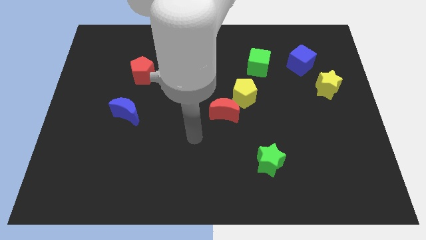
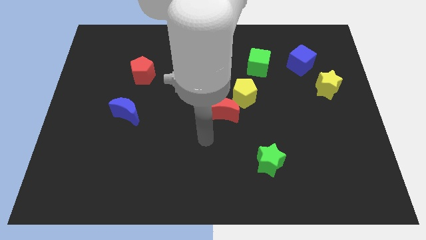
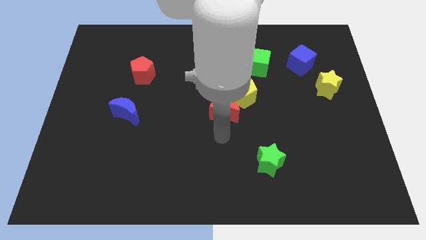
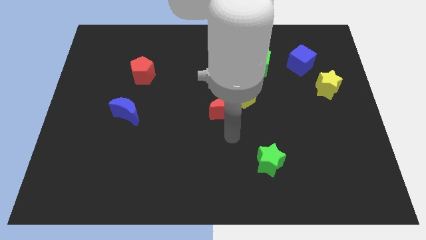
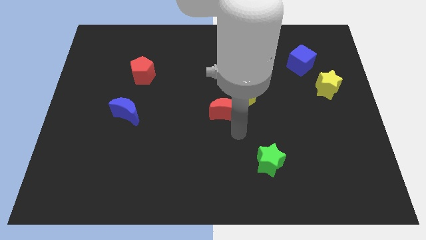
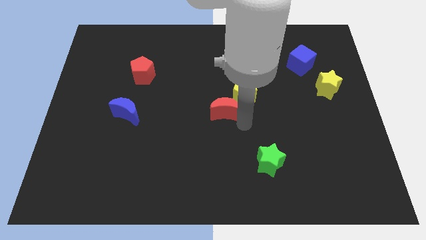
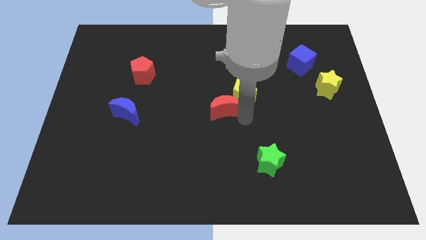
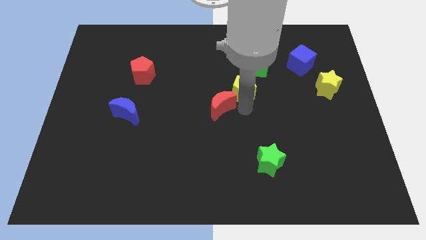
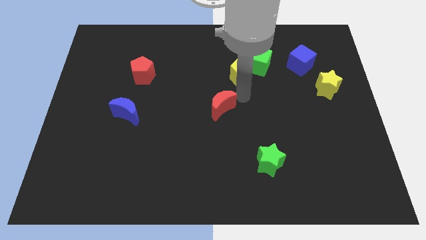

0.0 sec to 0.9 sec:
separate the red moon from the yellow pentagon

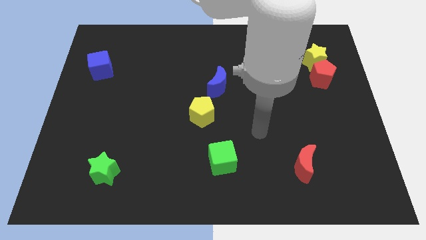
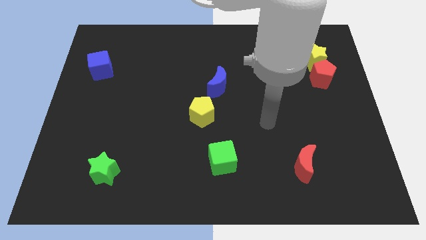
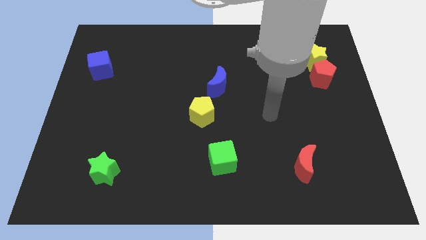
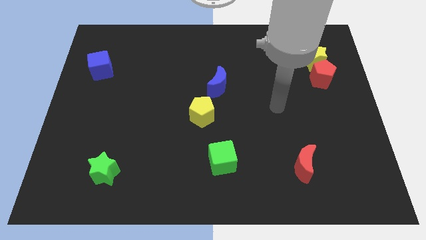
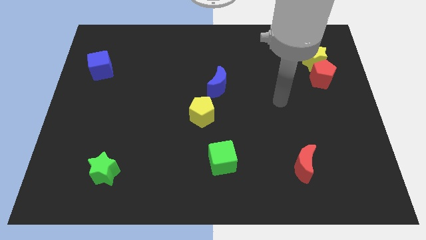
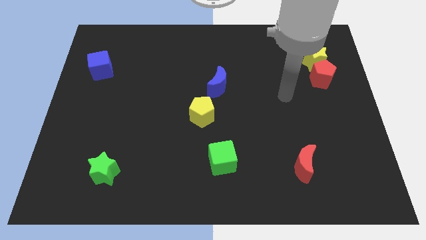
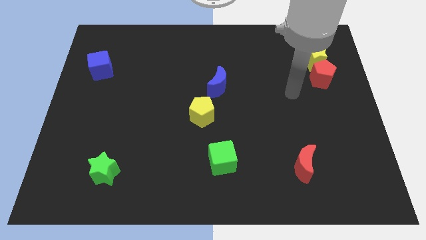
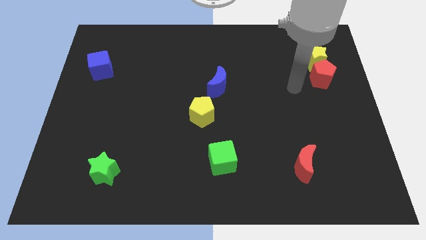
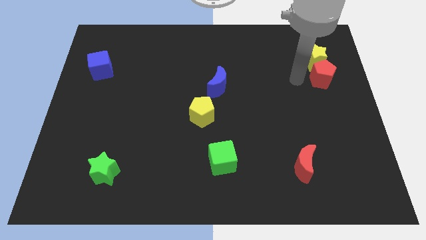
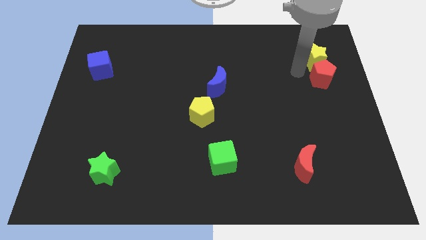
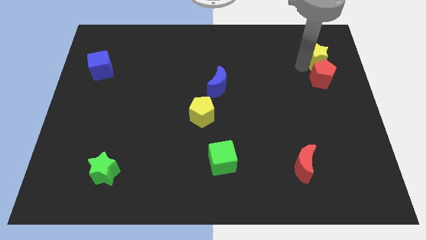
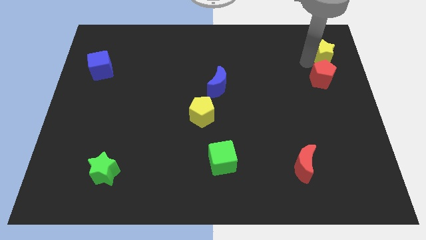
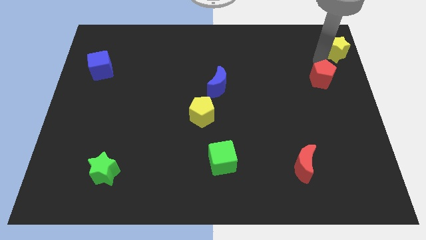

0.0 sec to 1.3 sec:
separate the red pentagon from the yellow star

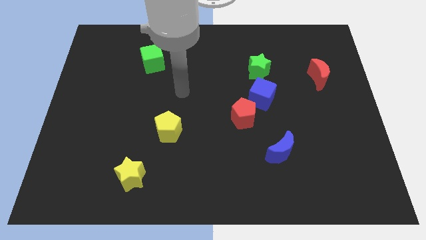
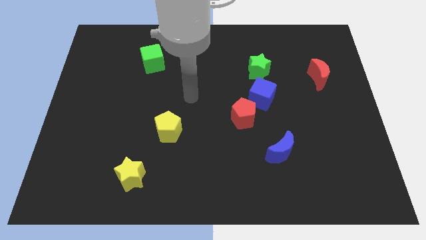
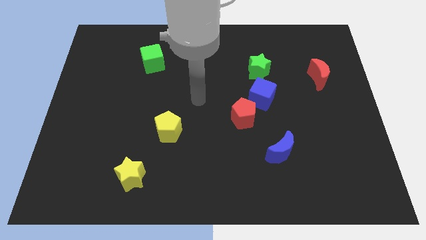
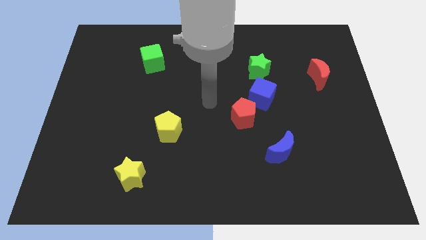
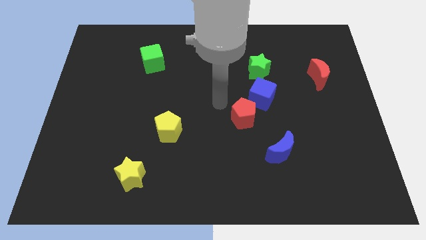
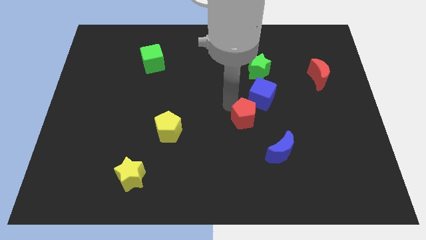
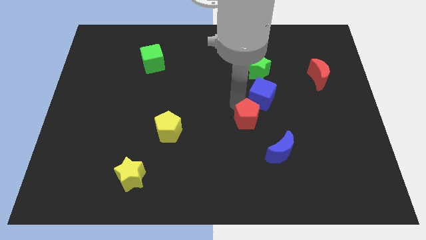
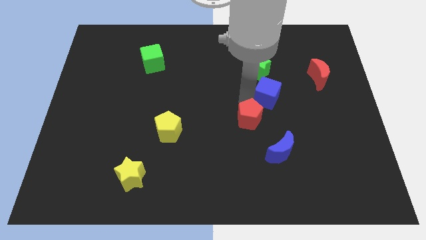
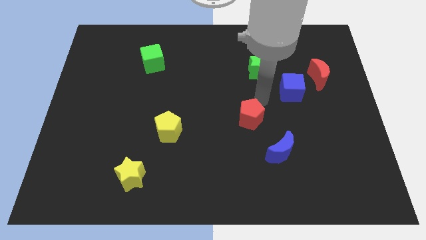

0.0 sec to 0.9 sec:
pull the red pentagon apart from the blue cube

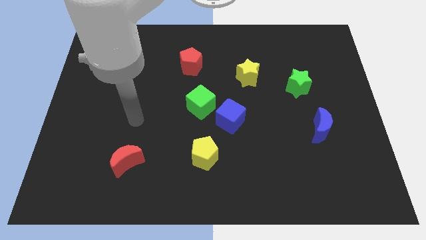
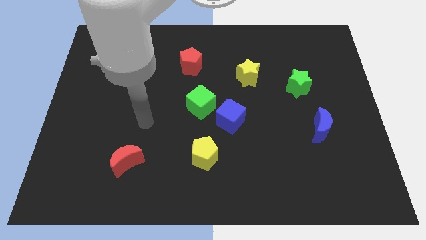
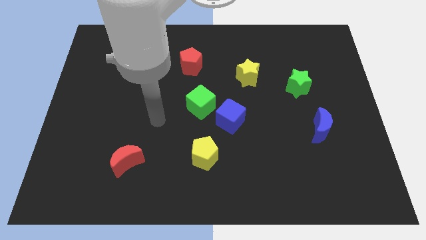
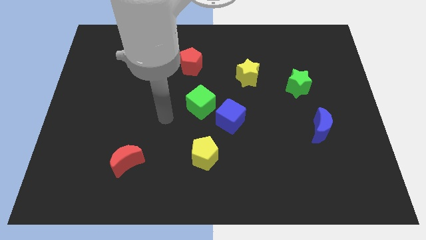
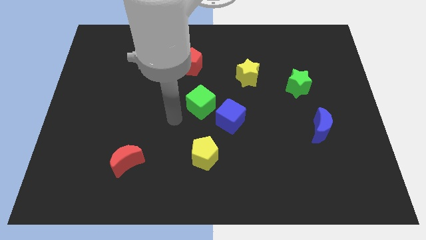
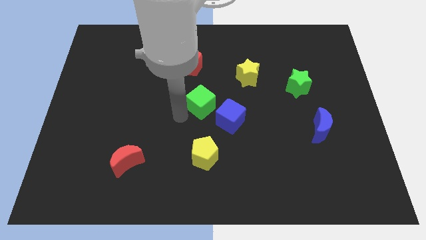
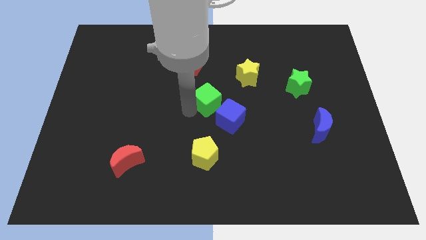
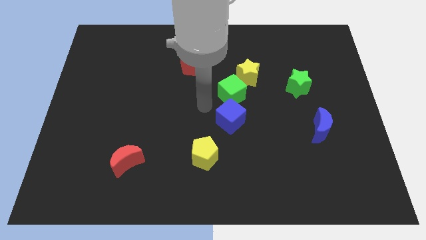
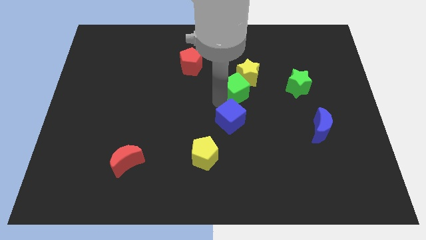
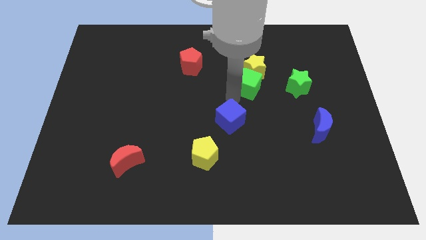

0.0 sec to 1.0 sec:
move the blue cube away from the green cube

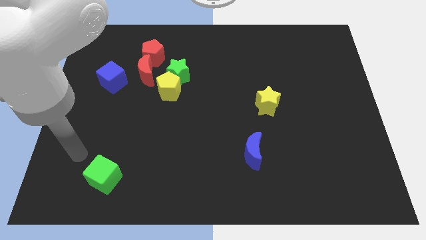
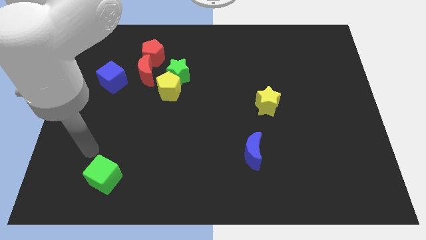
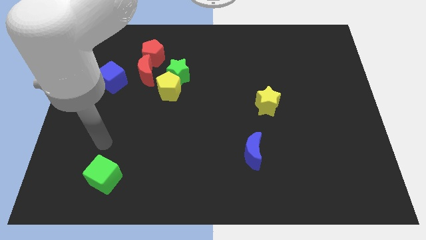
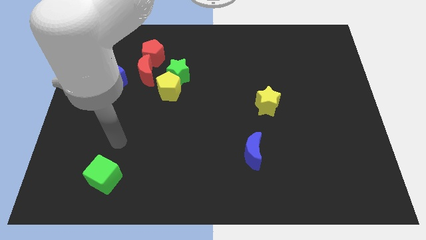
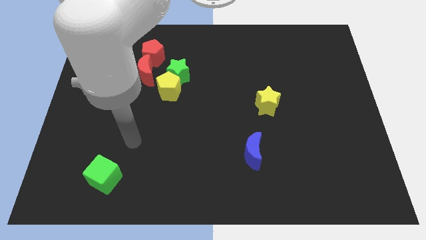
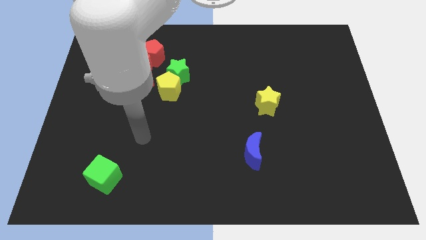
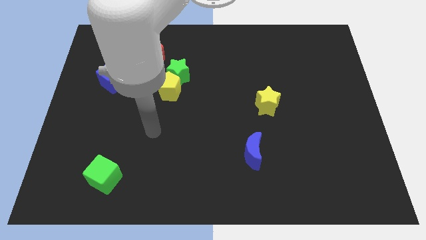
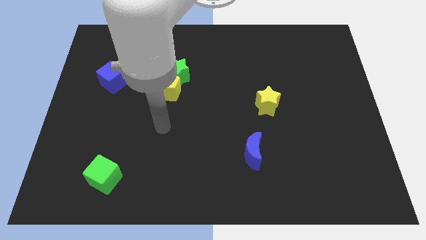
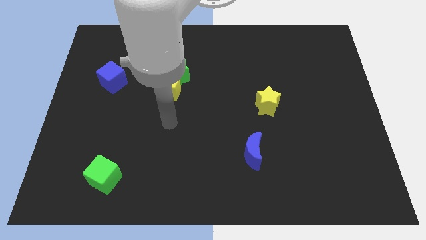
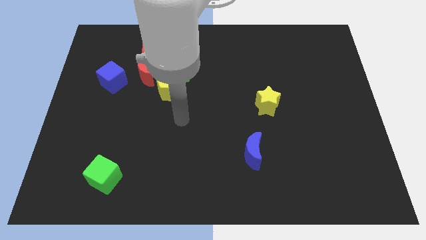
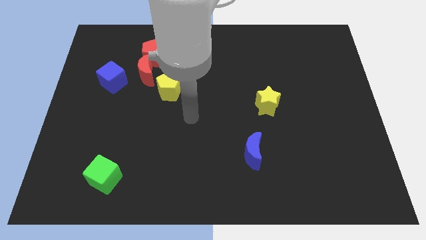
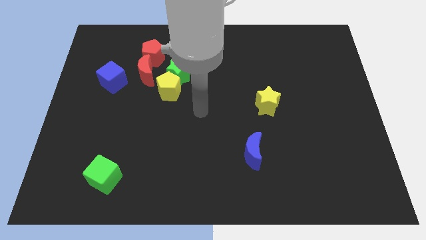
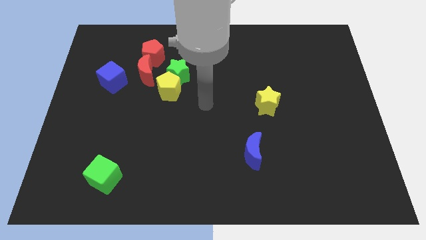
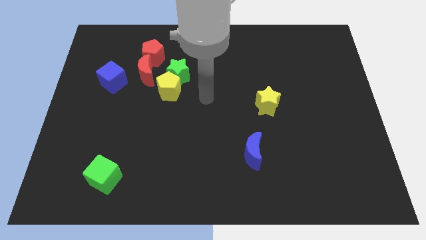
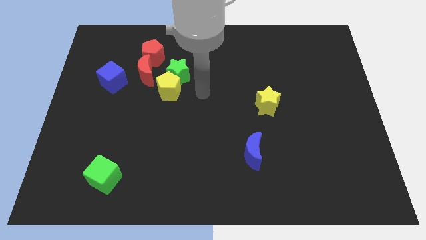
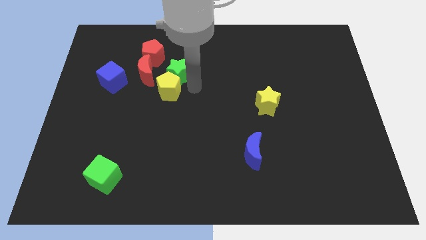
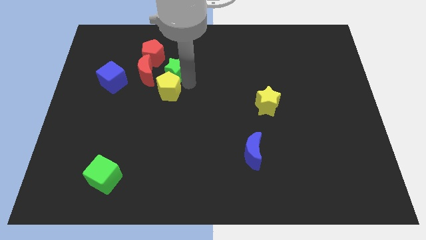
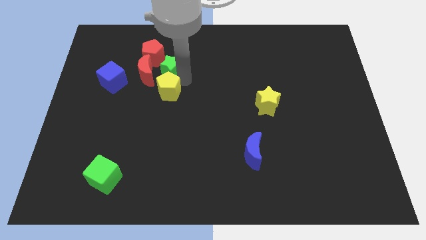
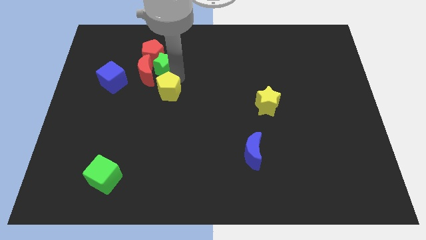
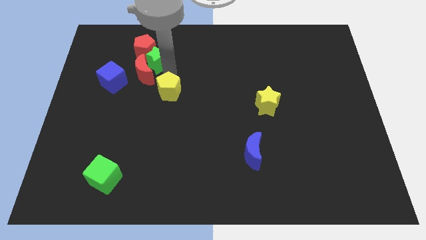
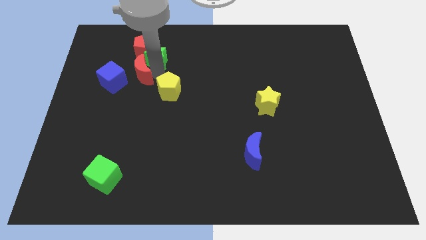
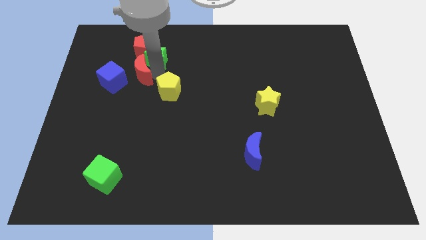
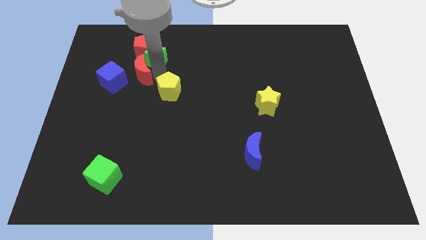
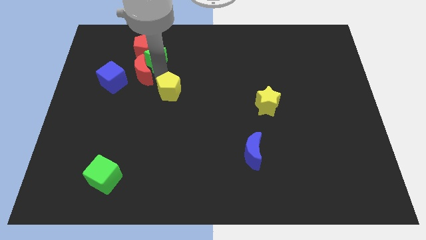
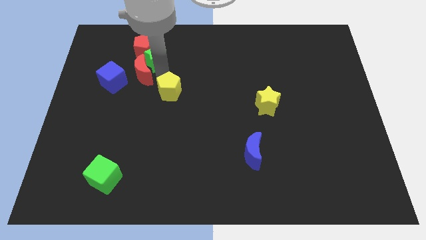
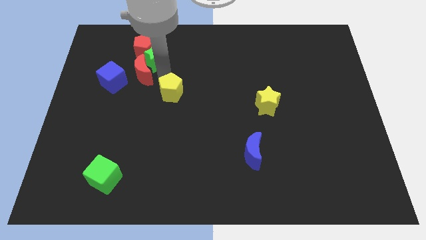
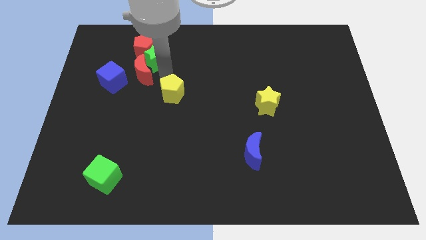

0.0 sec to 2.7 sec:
pull the yellow pentagon apart from the green star and red moon

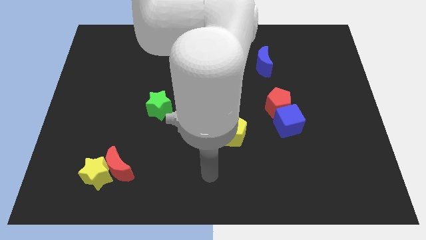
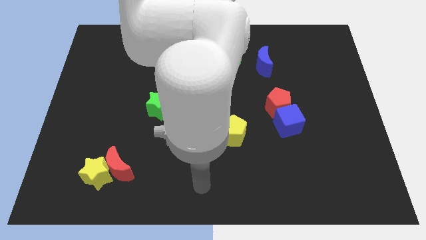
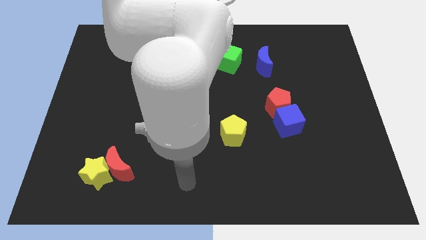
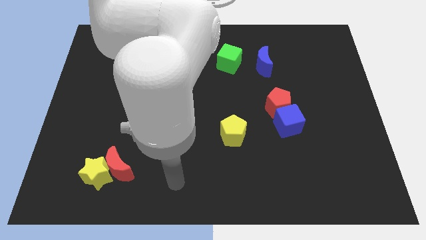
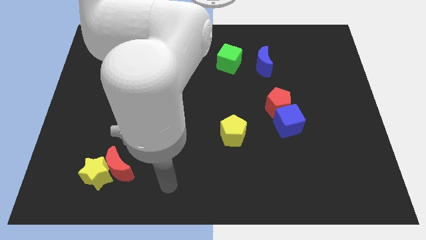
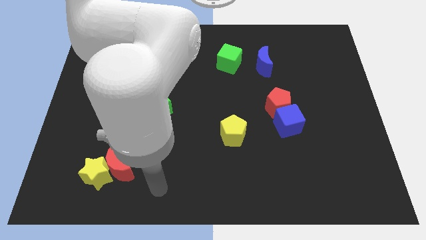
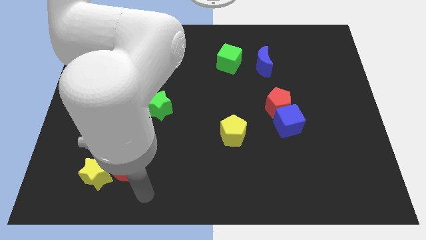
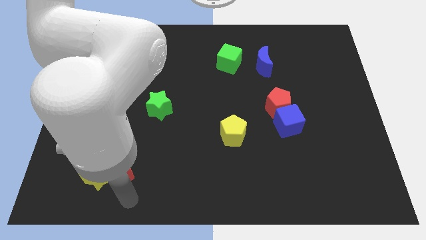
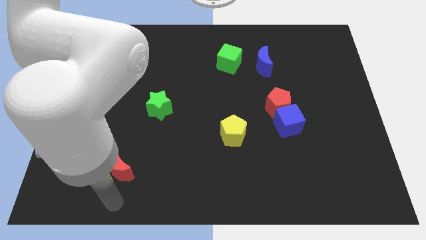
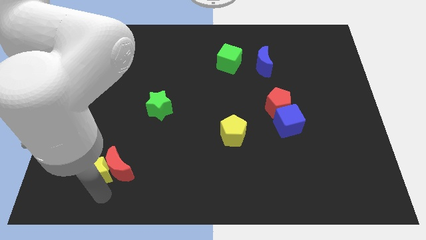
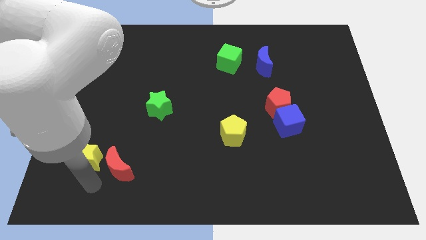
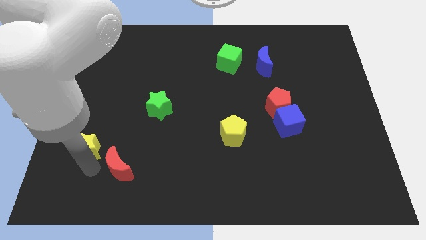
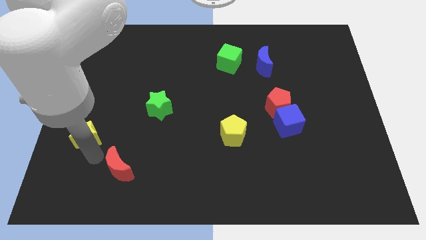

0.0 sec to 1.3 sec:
separate the red moon from the yellow star

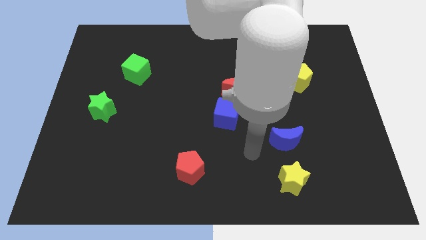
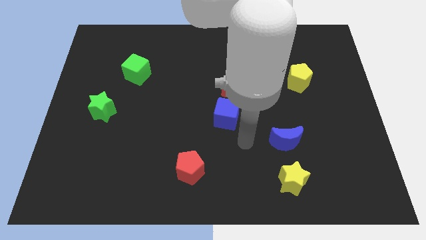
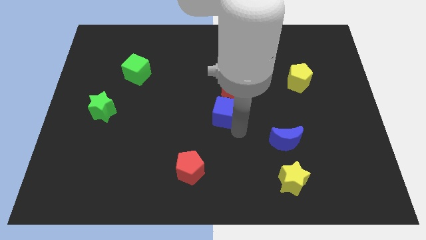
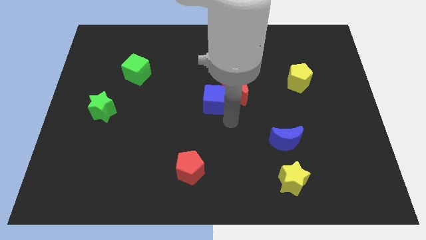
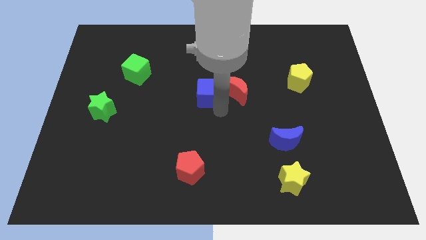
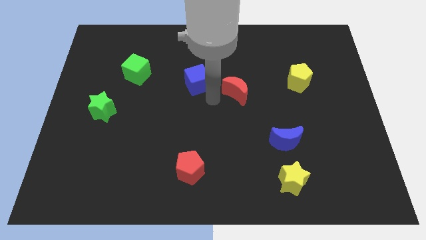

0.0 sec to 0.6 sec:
separate the red moon from the blue cube

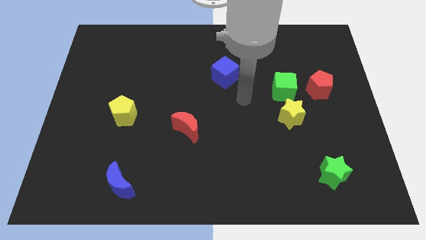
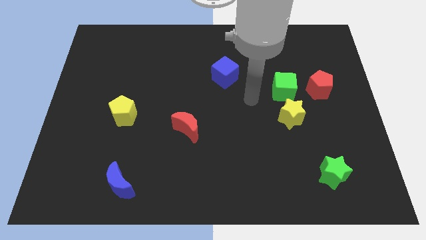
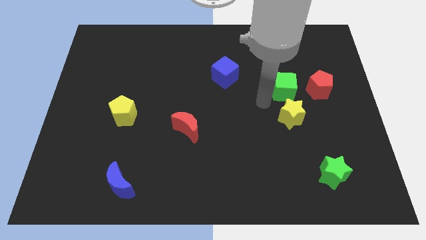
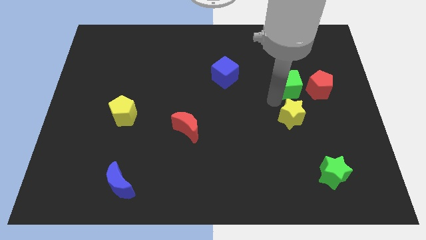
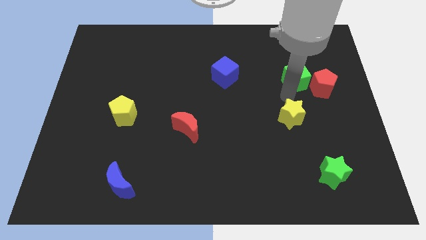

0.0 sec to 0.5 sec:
pull the yellow star apart from the green cube

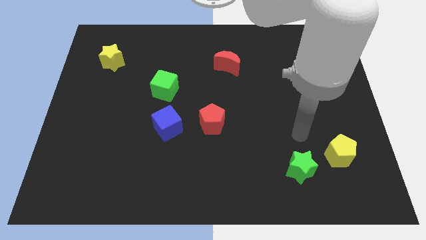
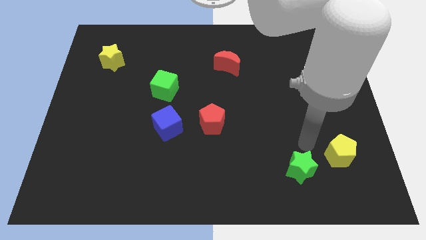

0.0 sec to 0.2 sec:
pull the green star apart from the yellow pentagon
